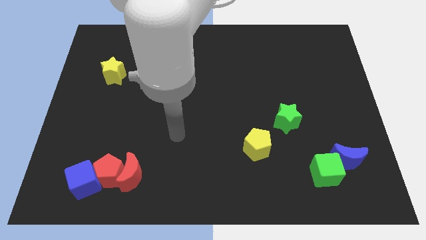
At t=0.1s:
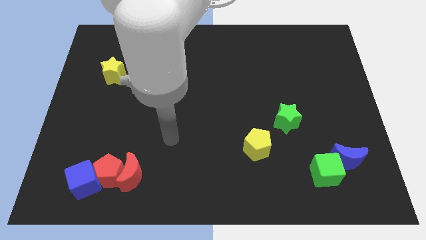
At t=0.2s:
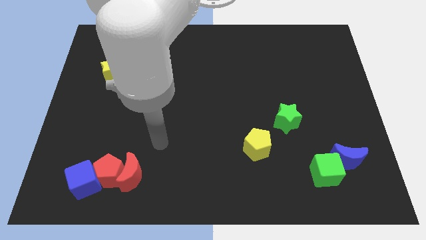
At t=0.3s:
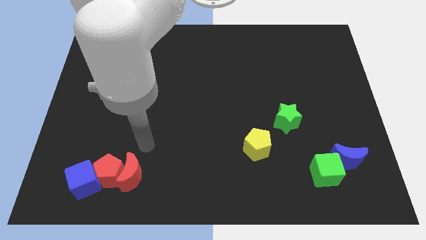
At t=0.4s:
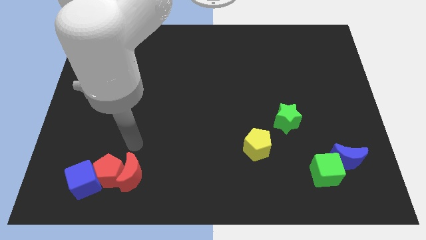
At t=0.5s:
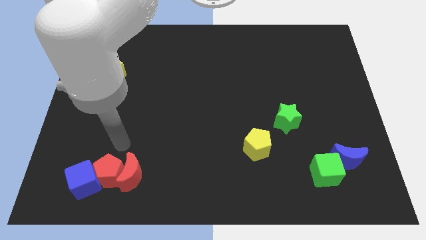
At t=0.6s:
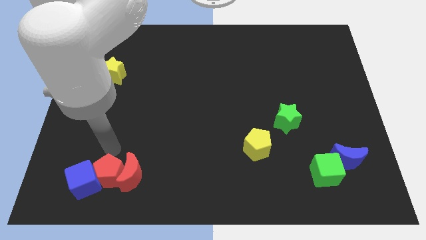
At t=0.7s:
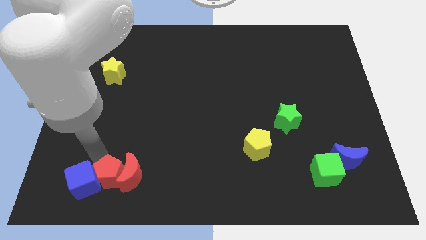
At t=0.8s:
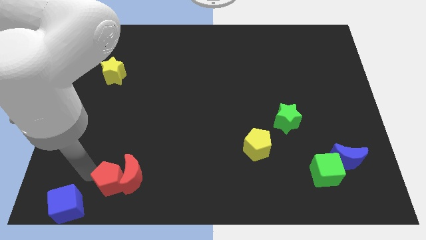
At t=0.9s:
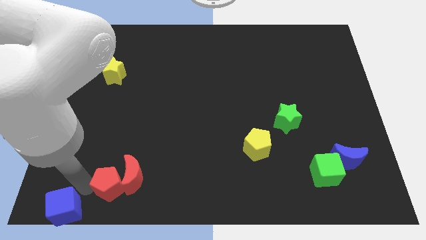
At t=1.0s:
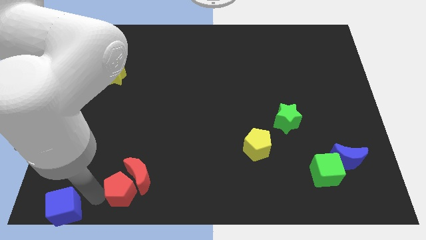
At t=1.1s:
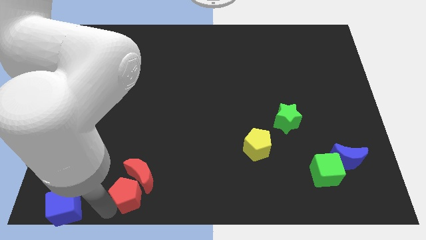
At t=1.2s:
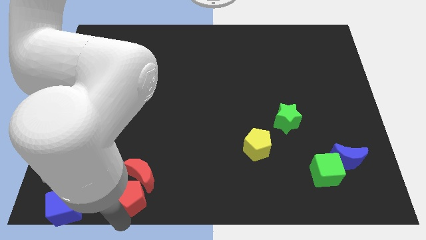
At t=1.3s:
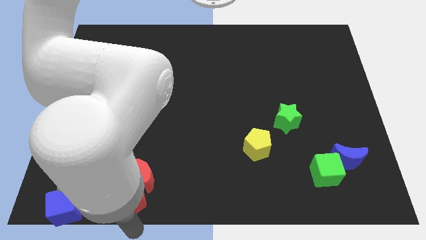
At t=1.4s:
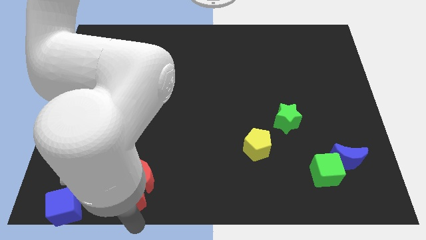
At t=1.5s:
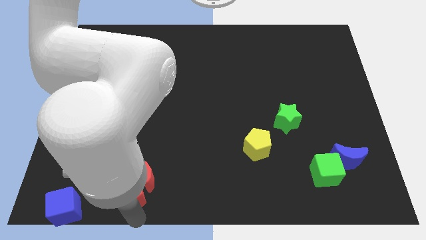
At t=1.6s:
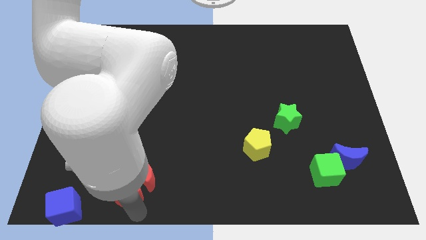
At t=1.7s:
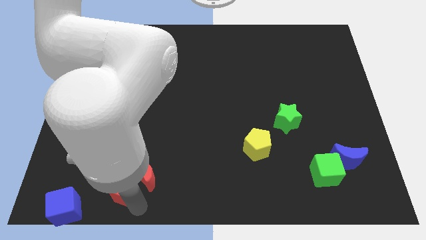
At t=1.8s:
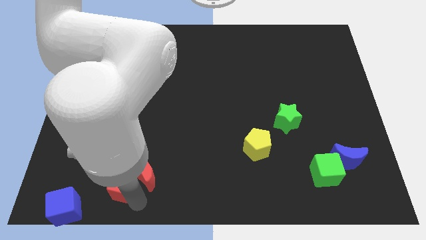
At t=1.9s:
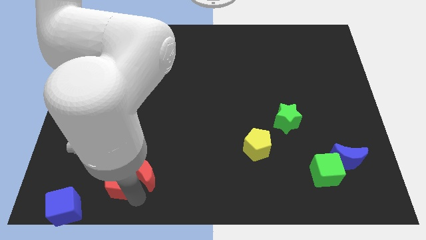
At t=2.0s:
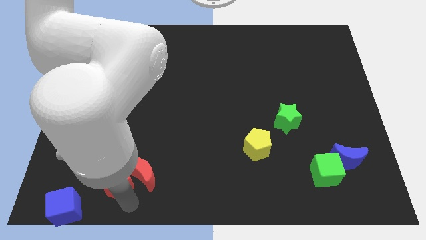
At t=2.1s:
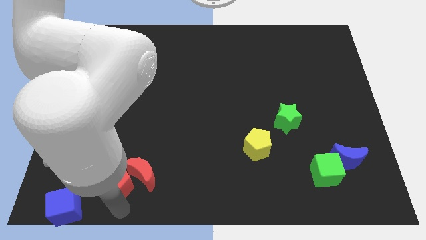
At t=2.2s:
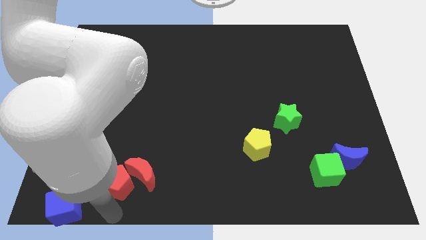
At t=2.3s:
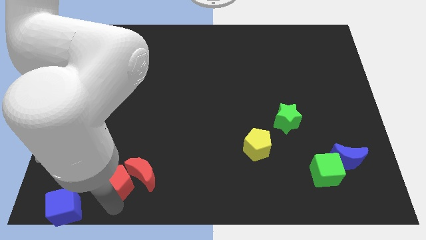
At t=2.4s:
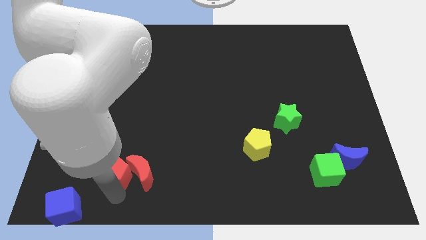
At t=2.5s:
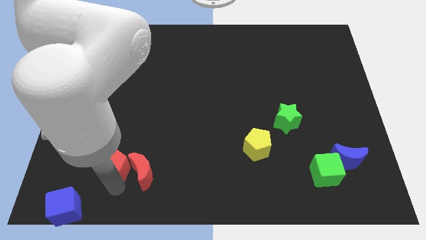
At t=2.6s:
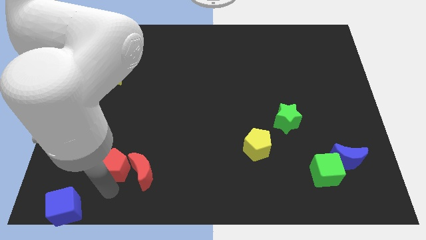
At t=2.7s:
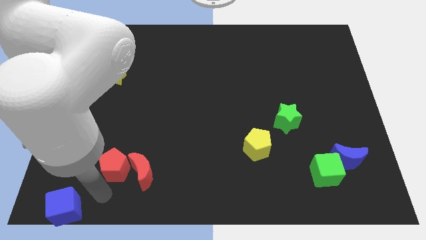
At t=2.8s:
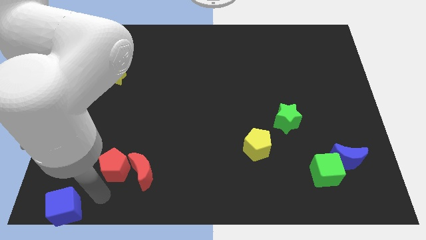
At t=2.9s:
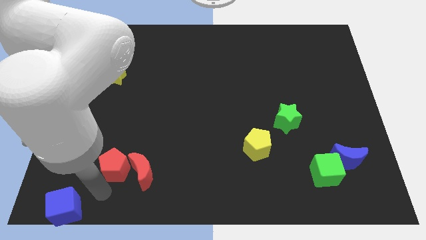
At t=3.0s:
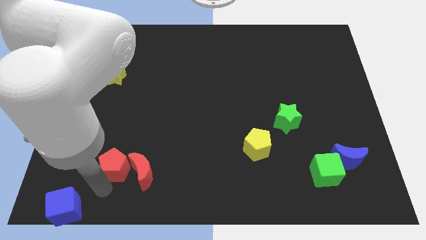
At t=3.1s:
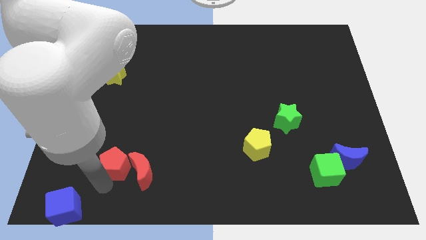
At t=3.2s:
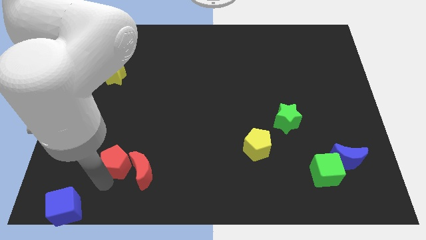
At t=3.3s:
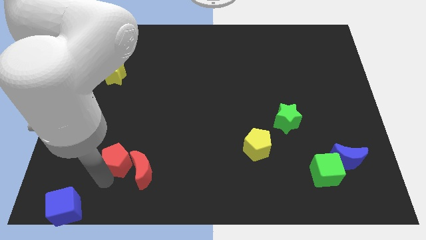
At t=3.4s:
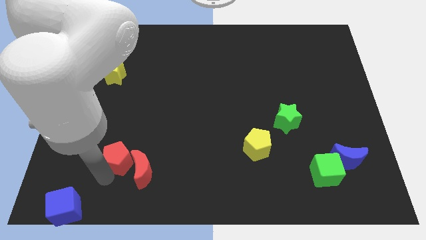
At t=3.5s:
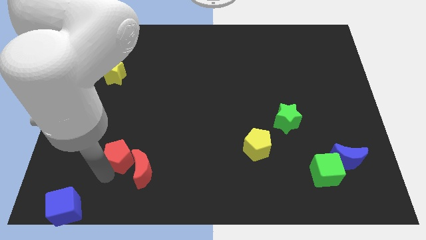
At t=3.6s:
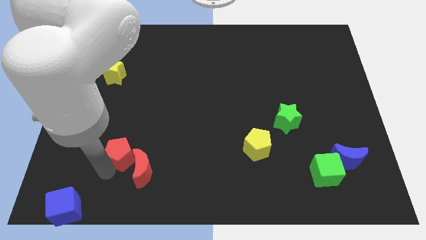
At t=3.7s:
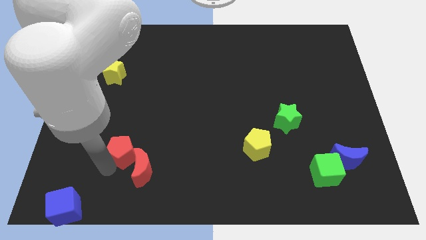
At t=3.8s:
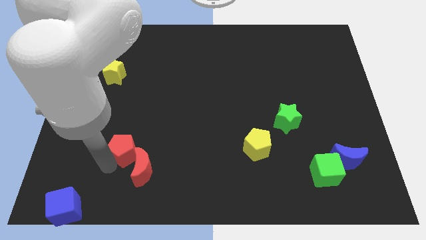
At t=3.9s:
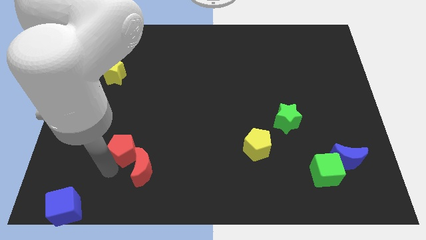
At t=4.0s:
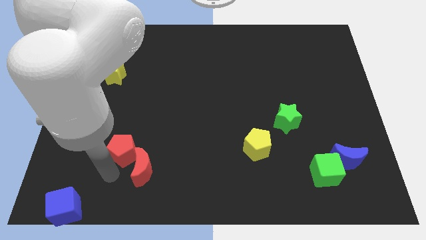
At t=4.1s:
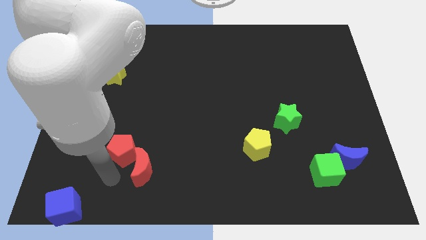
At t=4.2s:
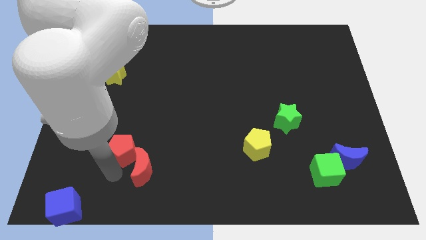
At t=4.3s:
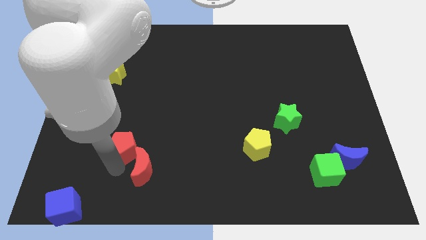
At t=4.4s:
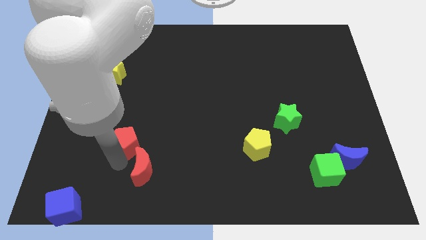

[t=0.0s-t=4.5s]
separate the red pentagon from the red moon and blue cube

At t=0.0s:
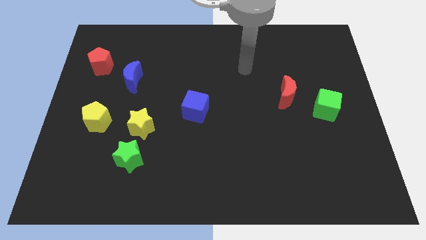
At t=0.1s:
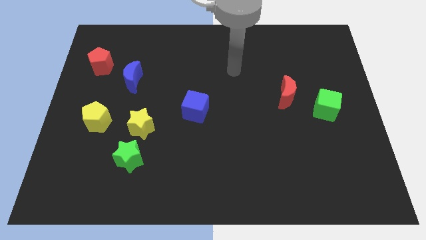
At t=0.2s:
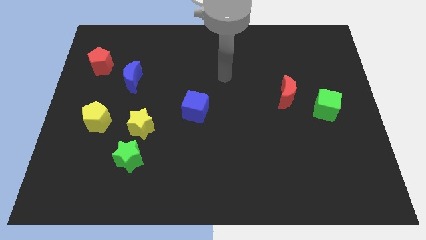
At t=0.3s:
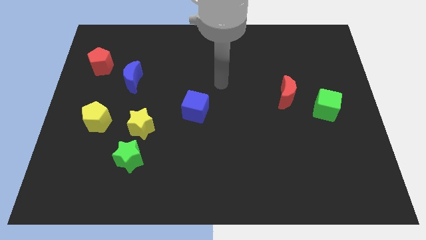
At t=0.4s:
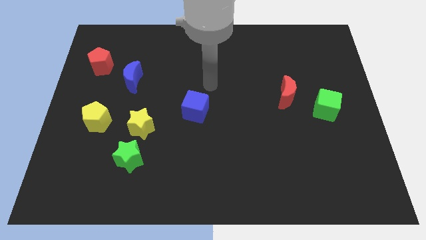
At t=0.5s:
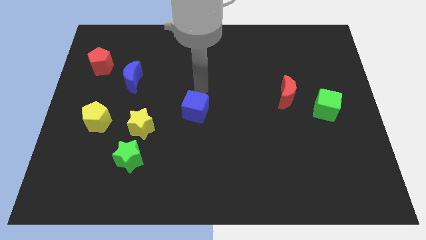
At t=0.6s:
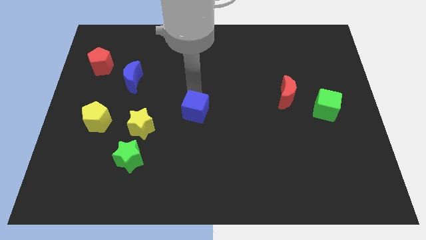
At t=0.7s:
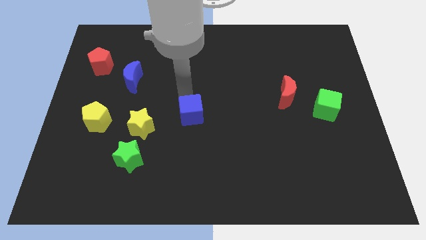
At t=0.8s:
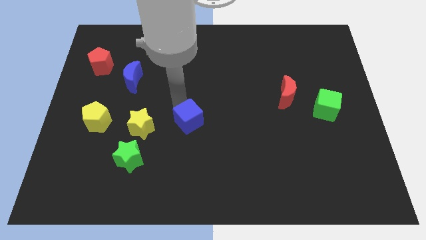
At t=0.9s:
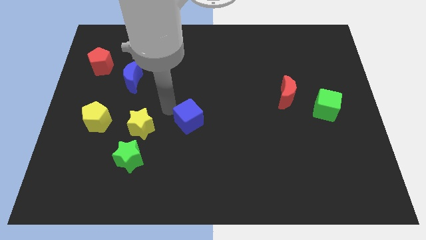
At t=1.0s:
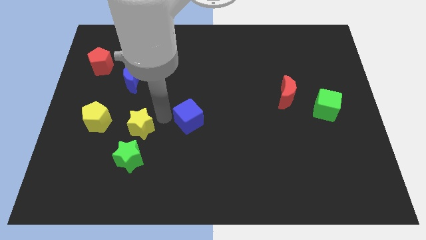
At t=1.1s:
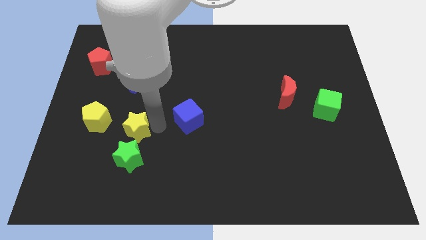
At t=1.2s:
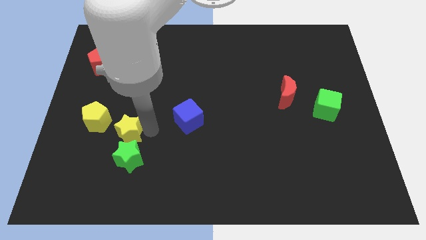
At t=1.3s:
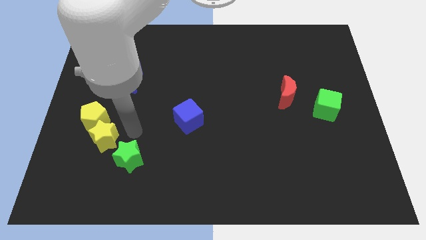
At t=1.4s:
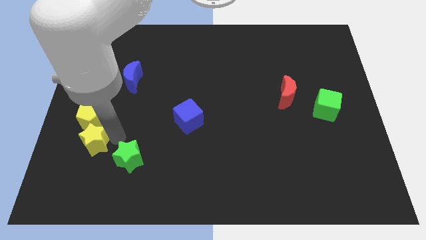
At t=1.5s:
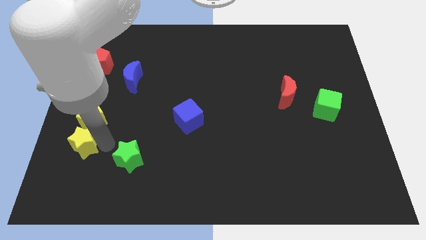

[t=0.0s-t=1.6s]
separate the green star from the yellow star

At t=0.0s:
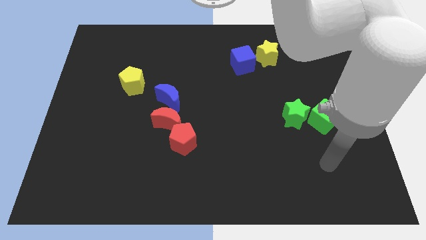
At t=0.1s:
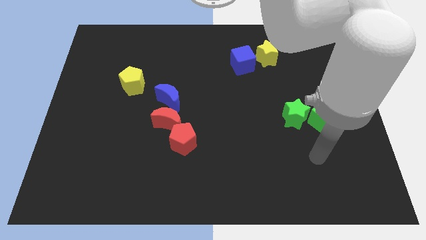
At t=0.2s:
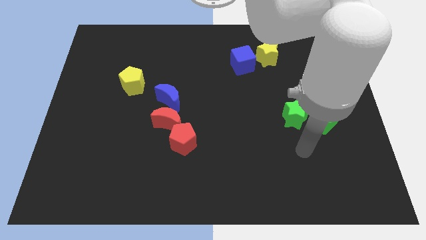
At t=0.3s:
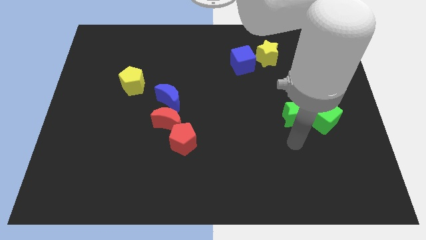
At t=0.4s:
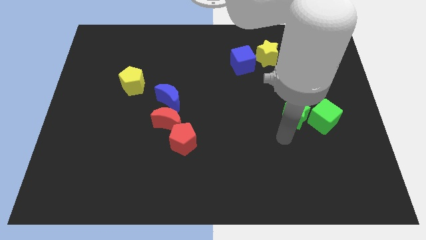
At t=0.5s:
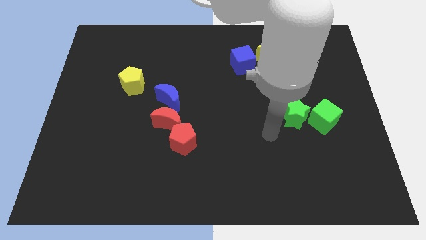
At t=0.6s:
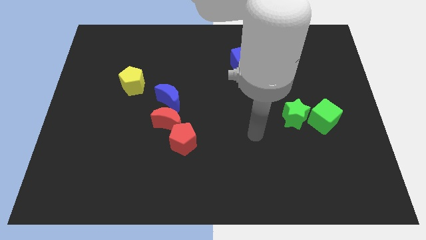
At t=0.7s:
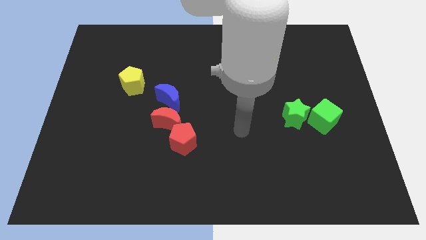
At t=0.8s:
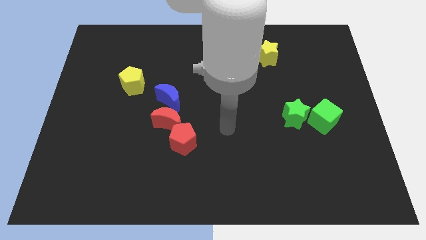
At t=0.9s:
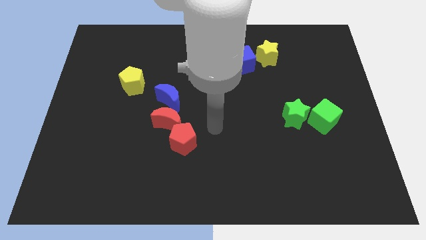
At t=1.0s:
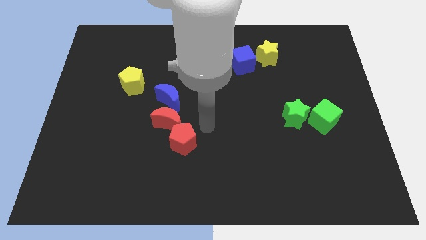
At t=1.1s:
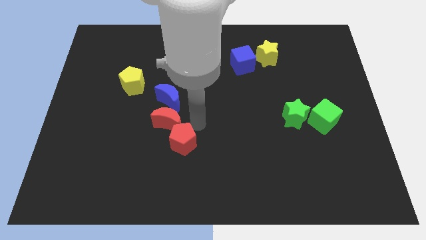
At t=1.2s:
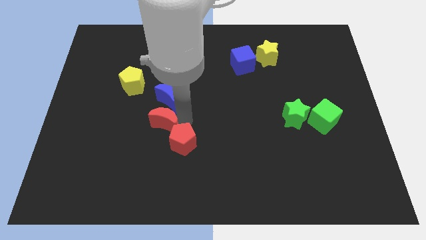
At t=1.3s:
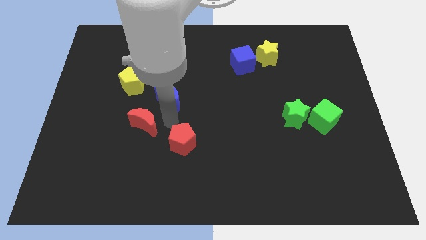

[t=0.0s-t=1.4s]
separate the red pentagon from the red moon

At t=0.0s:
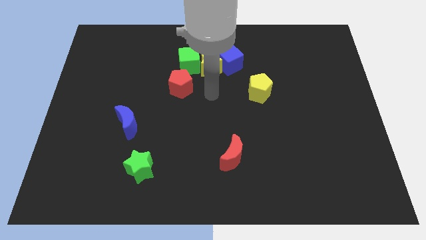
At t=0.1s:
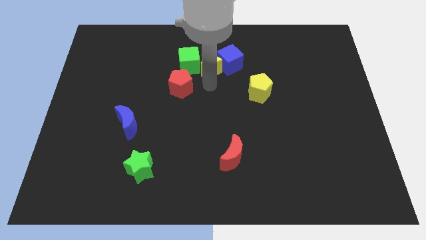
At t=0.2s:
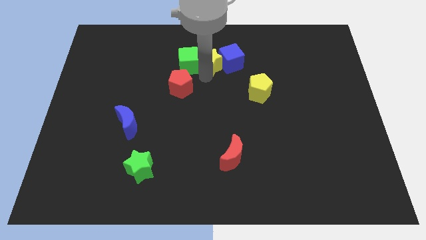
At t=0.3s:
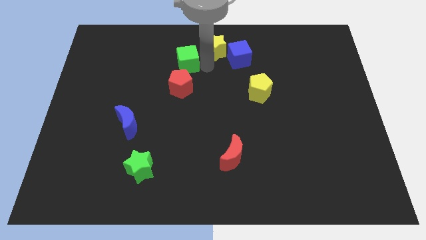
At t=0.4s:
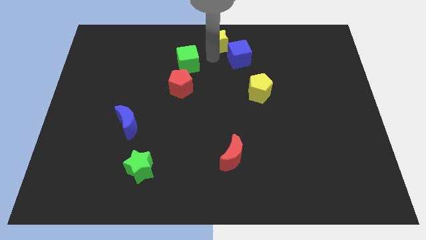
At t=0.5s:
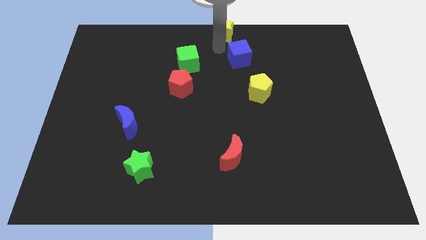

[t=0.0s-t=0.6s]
pull the blue cube apart from the yellow star

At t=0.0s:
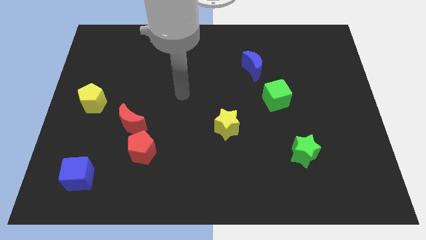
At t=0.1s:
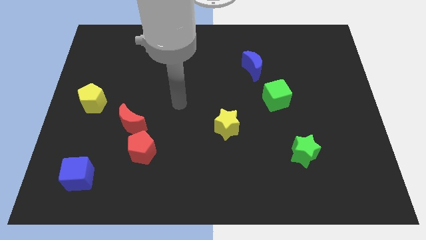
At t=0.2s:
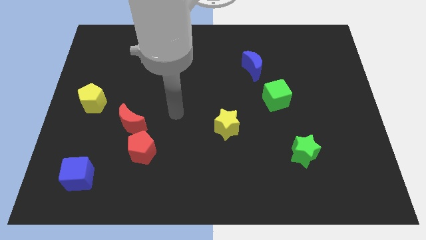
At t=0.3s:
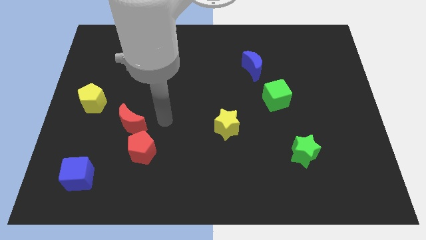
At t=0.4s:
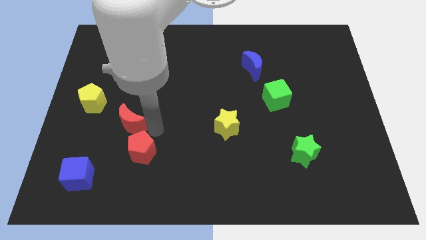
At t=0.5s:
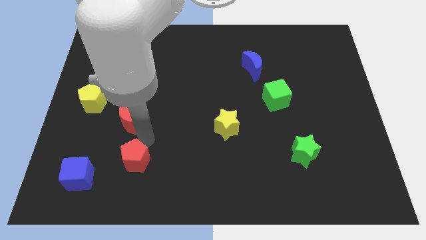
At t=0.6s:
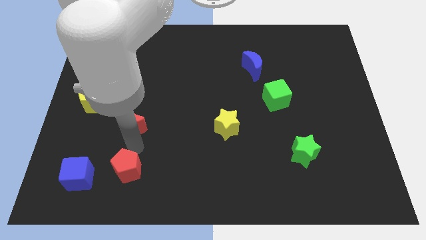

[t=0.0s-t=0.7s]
separate the red moon from the red pentagon

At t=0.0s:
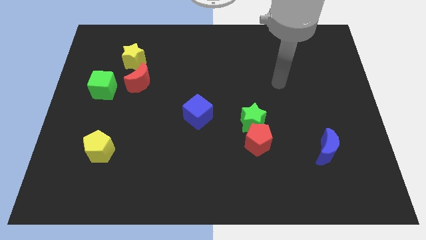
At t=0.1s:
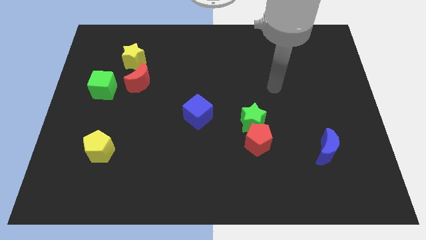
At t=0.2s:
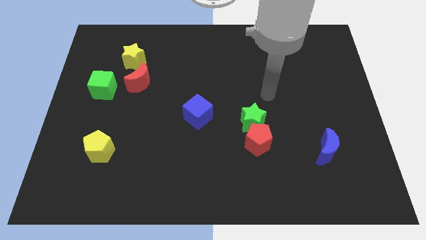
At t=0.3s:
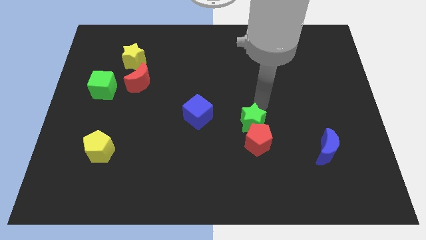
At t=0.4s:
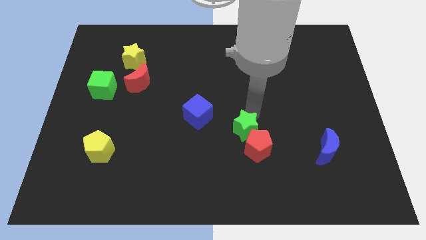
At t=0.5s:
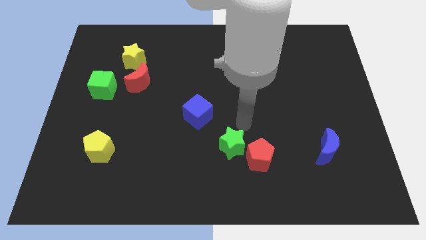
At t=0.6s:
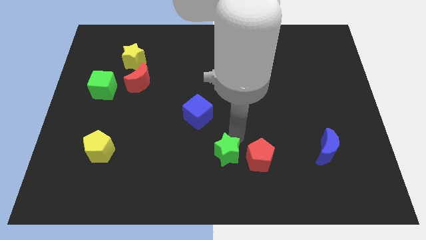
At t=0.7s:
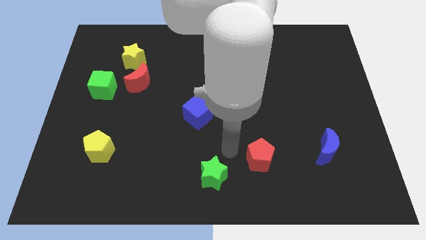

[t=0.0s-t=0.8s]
move the red pentagon away from the green star
